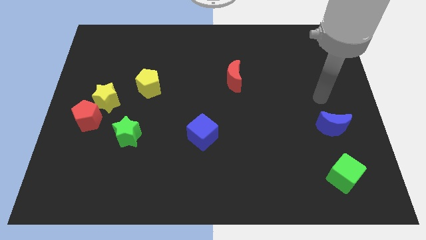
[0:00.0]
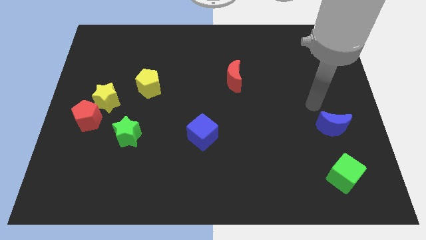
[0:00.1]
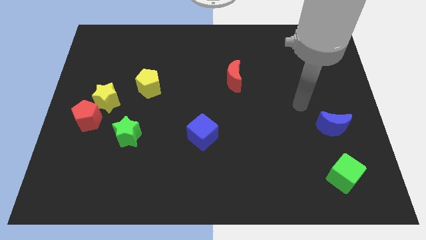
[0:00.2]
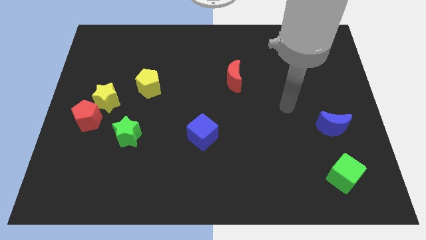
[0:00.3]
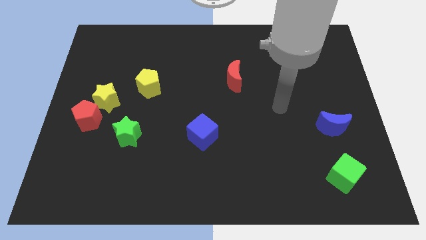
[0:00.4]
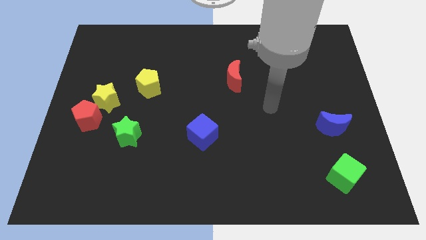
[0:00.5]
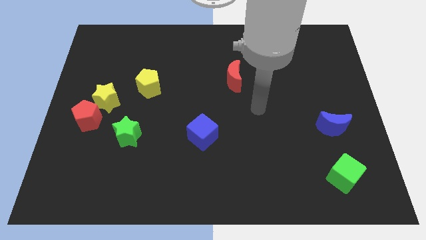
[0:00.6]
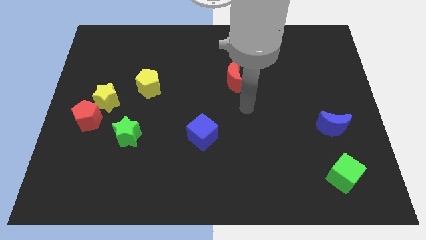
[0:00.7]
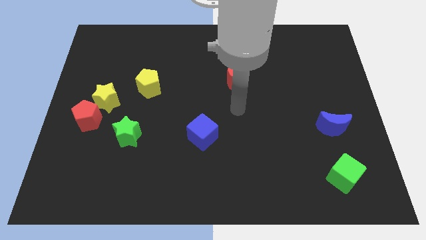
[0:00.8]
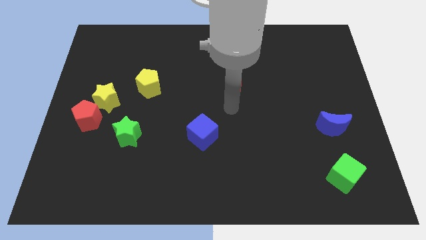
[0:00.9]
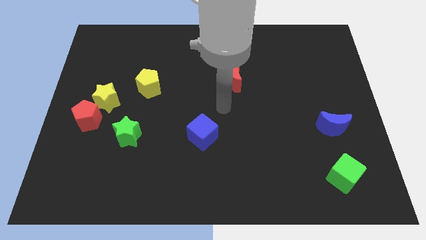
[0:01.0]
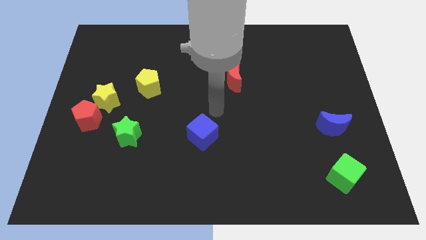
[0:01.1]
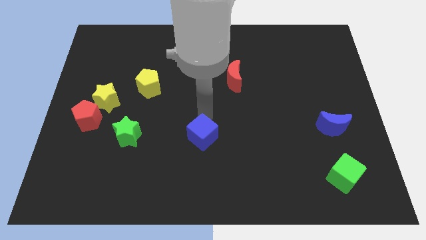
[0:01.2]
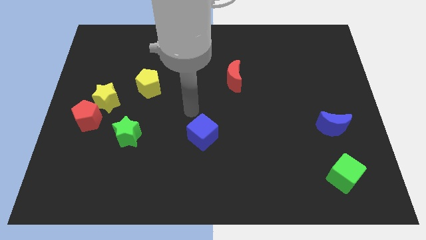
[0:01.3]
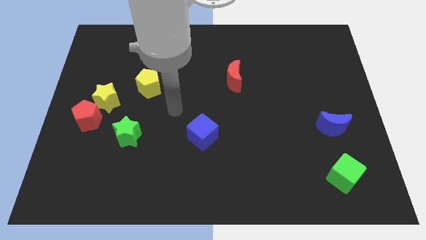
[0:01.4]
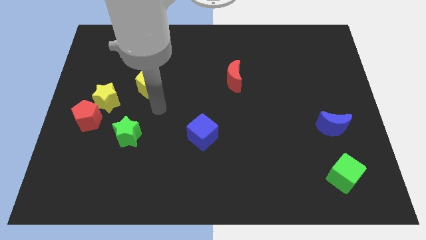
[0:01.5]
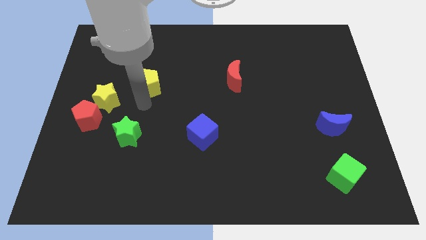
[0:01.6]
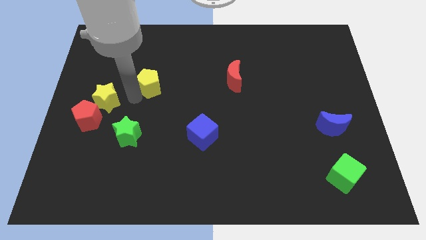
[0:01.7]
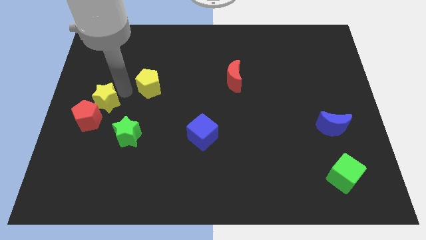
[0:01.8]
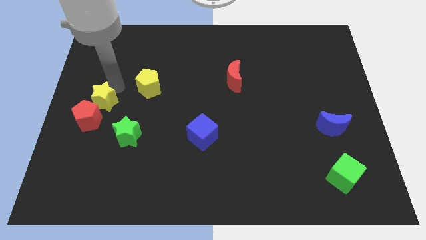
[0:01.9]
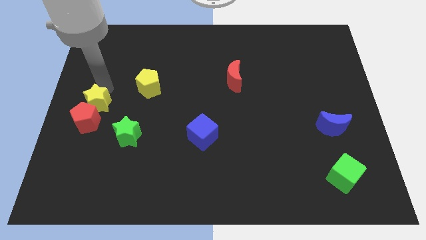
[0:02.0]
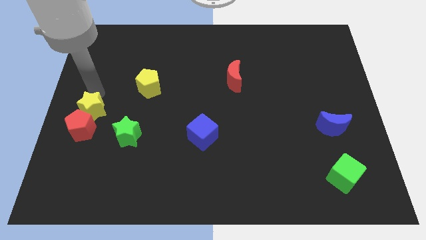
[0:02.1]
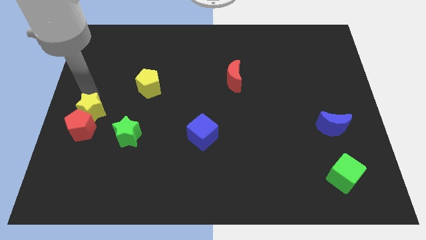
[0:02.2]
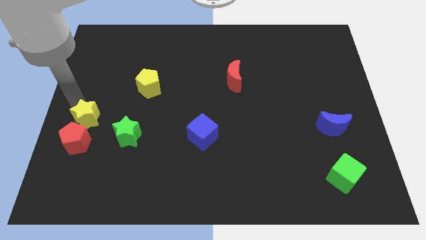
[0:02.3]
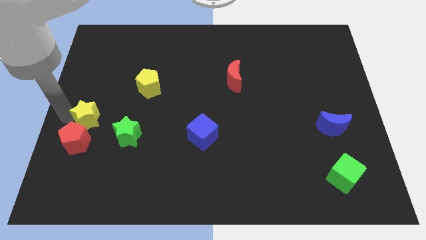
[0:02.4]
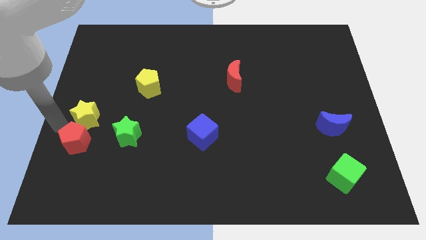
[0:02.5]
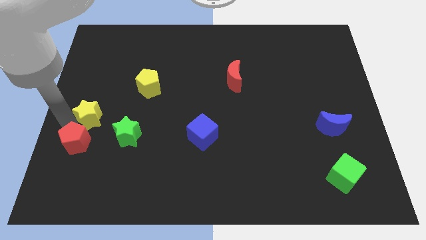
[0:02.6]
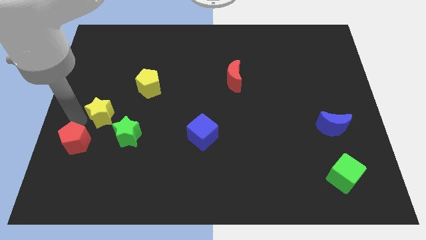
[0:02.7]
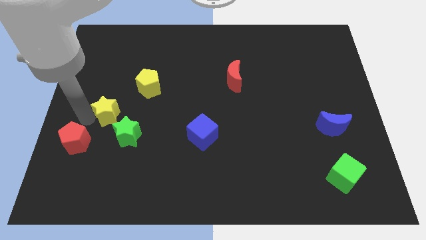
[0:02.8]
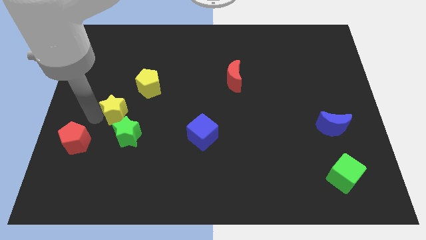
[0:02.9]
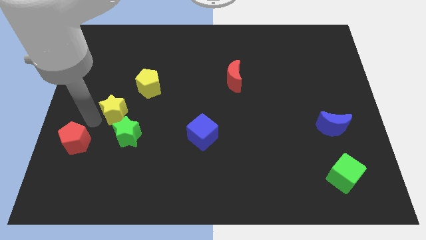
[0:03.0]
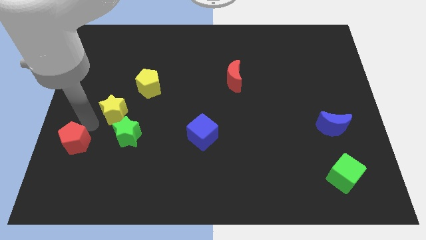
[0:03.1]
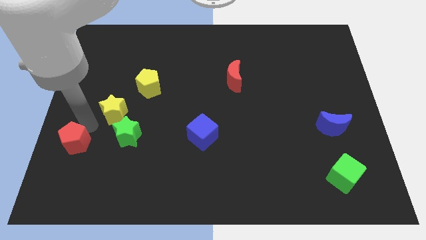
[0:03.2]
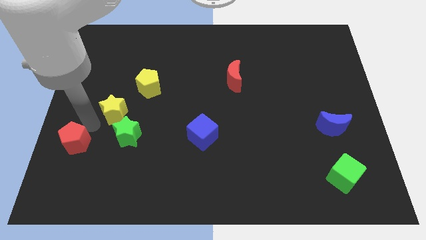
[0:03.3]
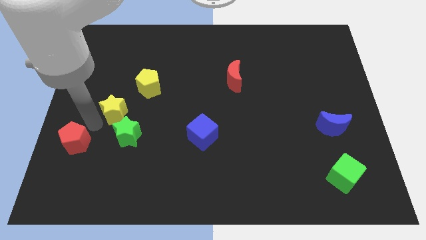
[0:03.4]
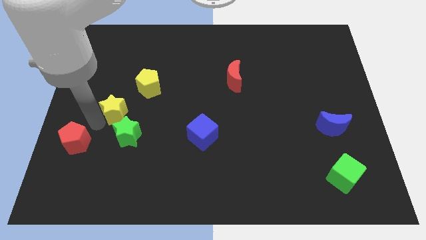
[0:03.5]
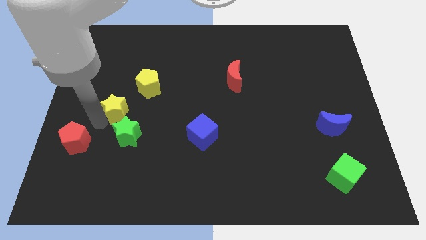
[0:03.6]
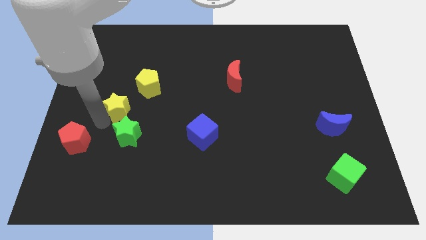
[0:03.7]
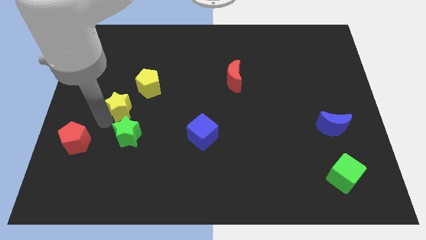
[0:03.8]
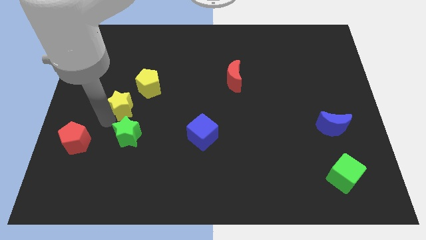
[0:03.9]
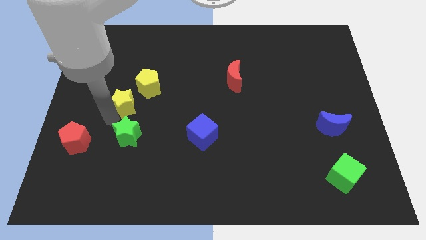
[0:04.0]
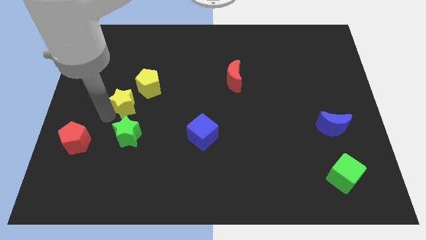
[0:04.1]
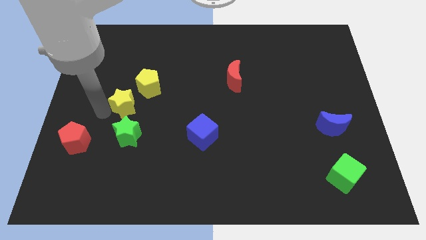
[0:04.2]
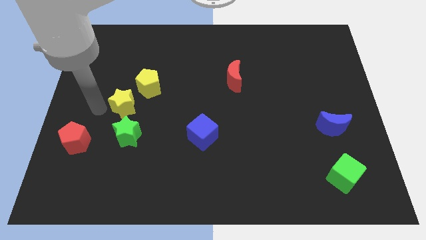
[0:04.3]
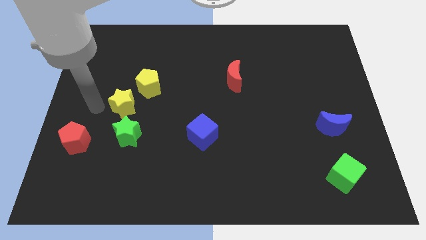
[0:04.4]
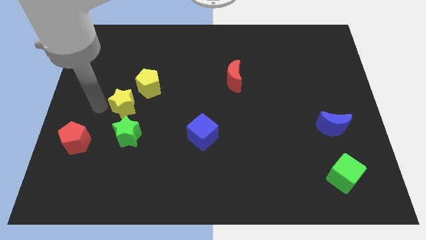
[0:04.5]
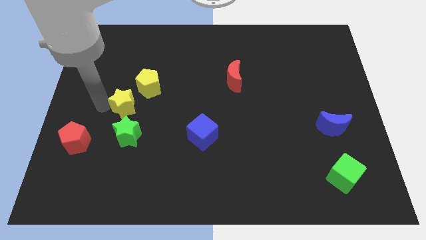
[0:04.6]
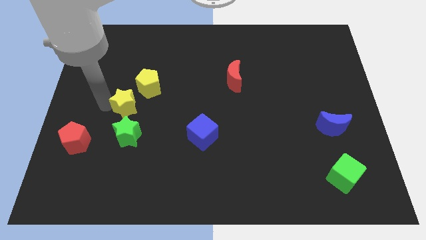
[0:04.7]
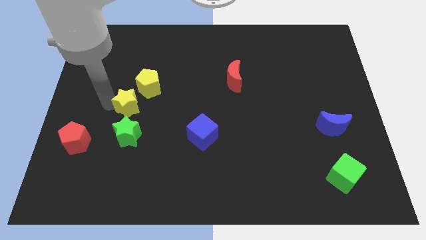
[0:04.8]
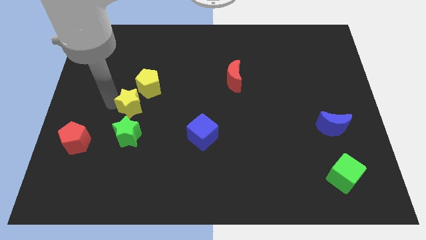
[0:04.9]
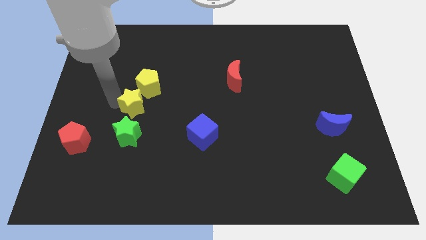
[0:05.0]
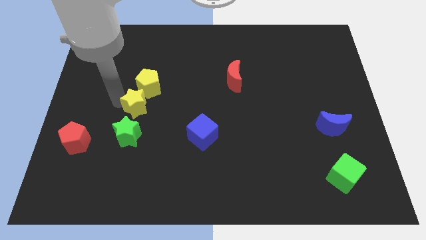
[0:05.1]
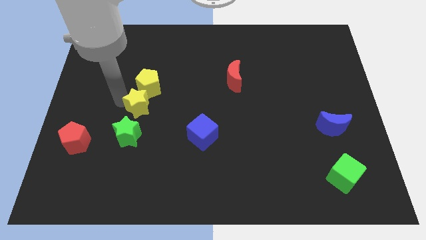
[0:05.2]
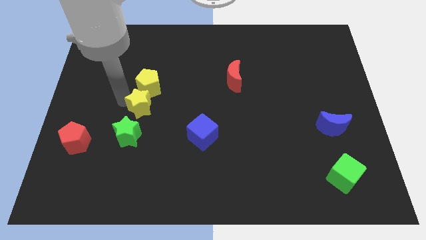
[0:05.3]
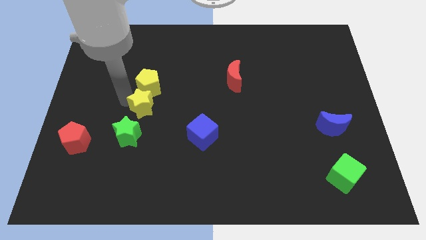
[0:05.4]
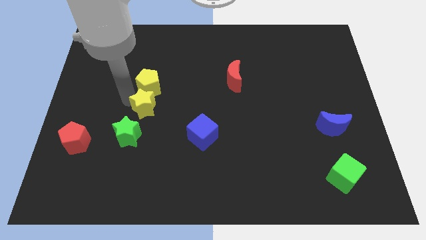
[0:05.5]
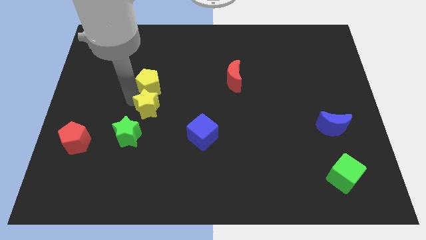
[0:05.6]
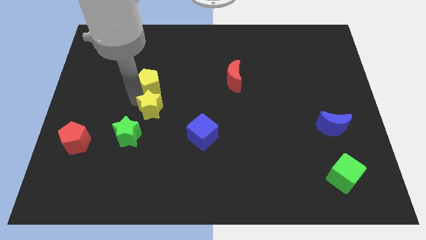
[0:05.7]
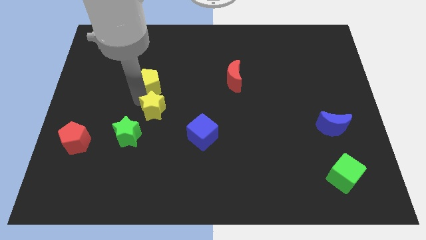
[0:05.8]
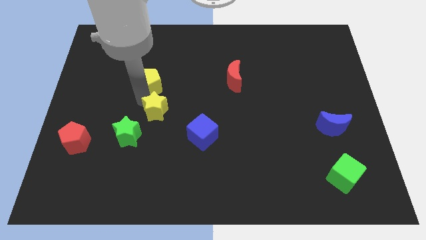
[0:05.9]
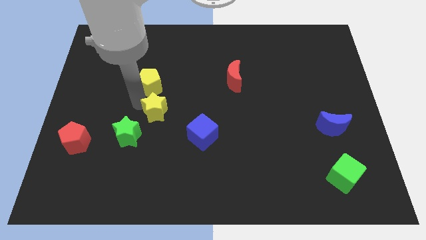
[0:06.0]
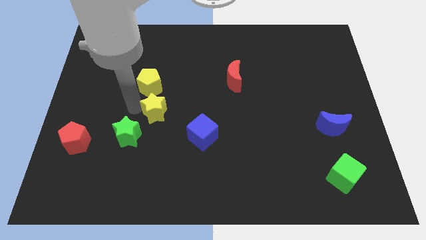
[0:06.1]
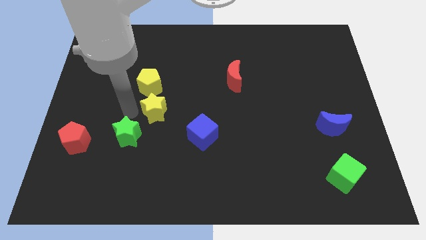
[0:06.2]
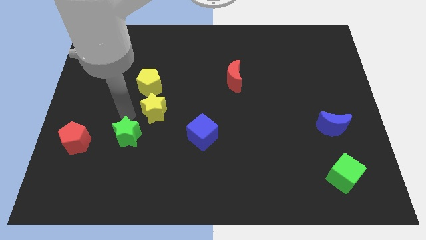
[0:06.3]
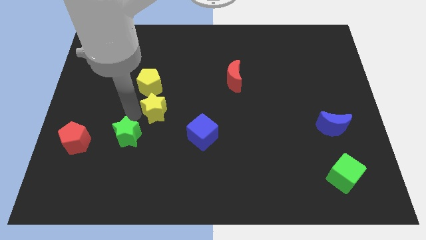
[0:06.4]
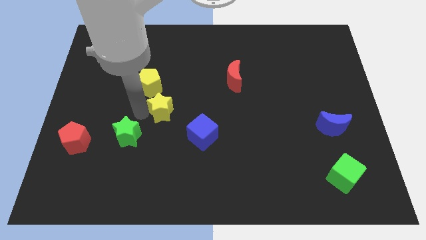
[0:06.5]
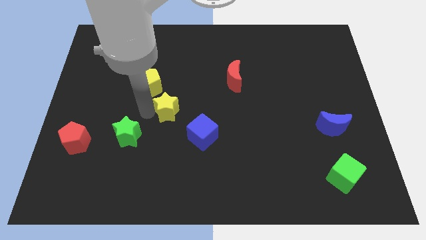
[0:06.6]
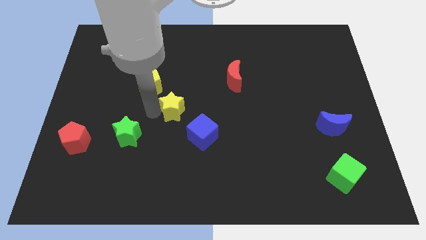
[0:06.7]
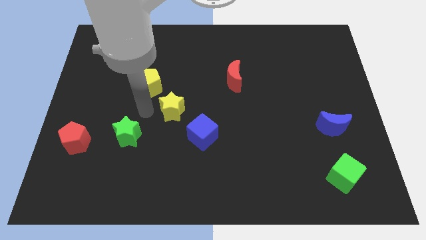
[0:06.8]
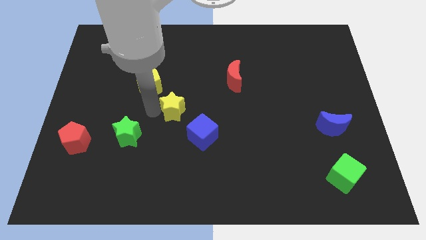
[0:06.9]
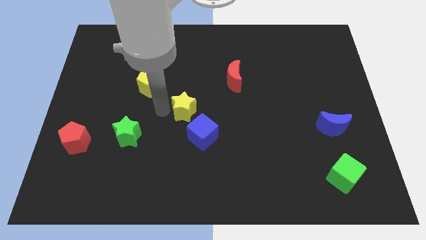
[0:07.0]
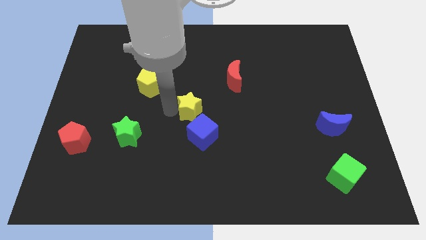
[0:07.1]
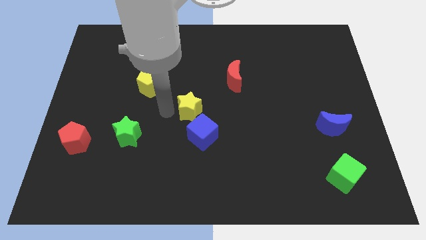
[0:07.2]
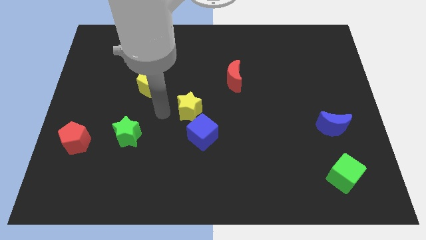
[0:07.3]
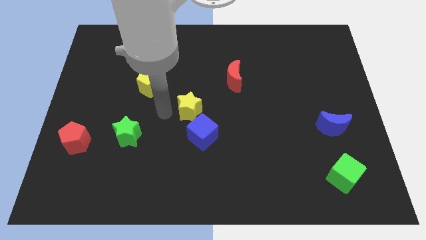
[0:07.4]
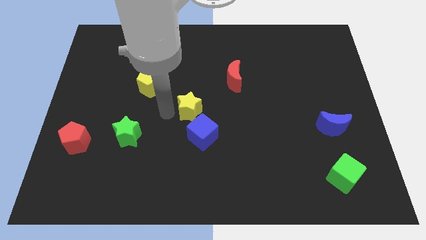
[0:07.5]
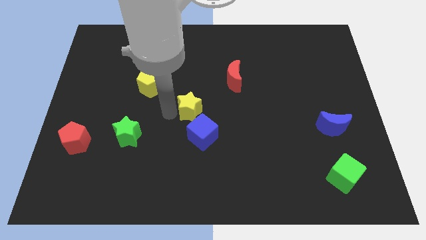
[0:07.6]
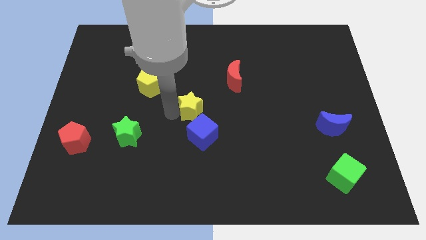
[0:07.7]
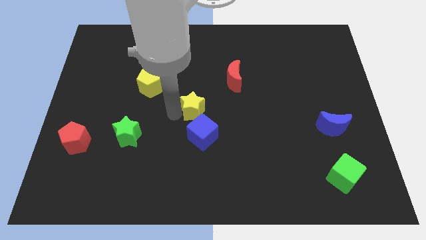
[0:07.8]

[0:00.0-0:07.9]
push the yellow star right
